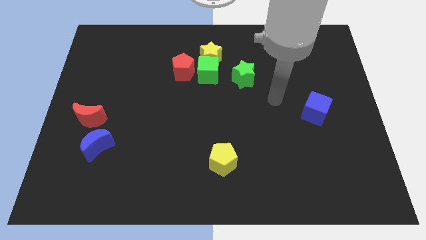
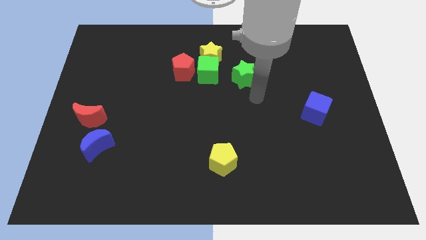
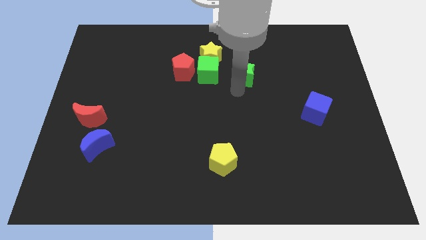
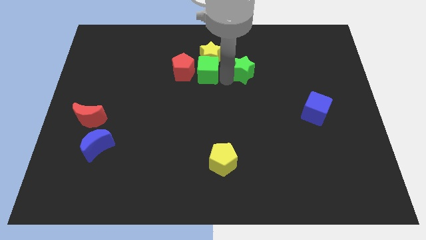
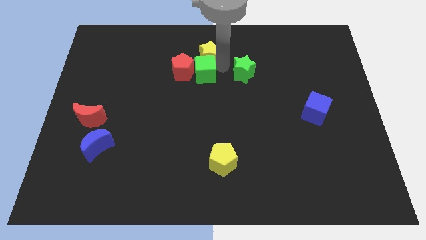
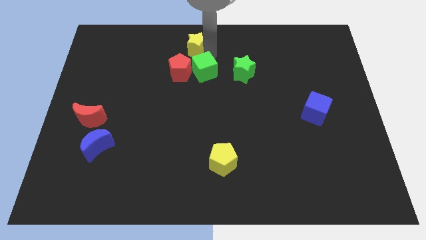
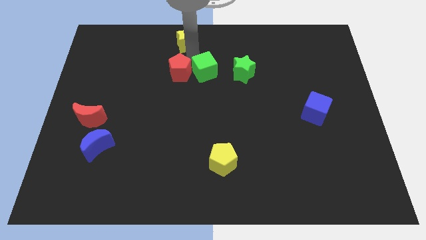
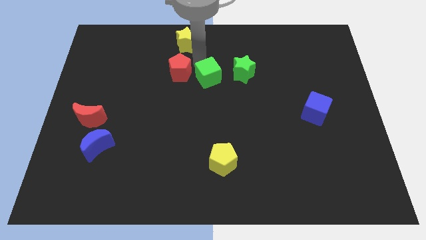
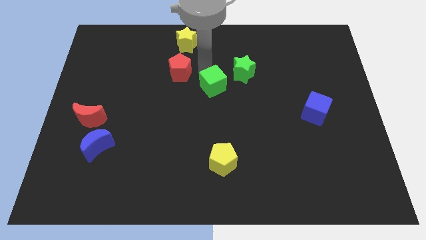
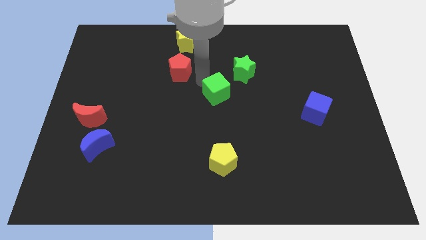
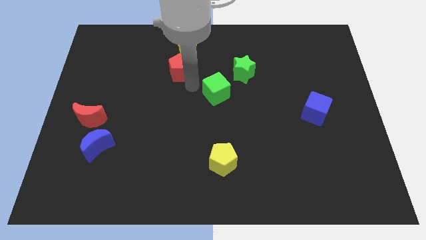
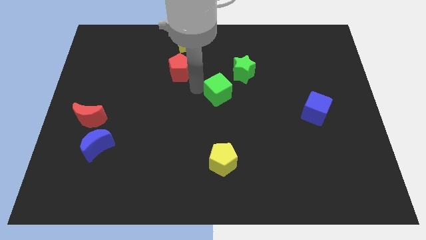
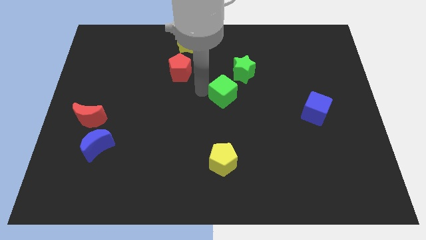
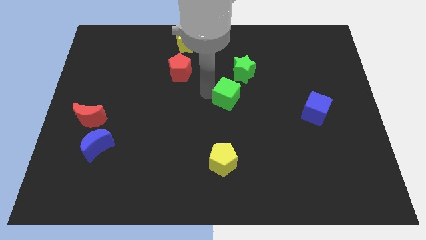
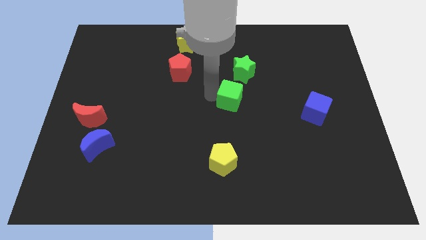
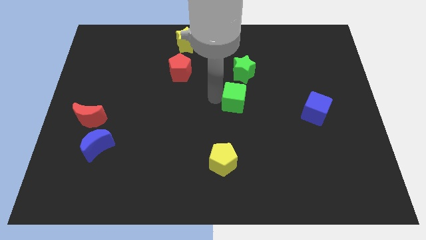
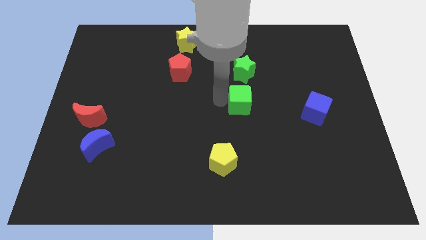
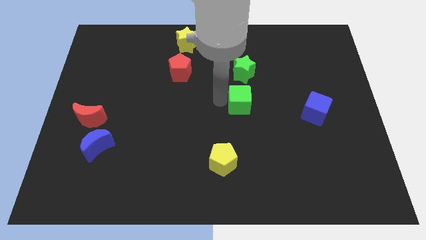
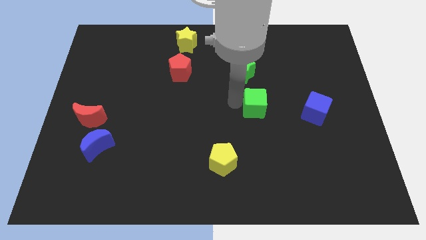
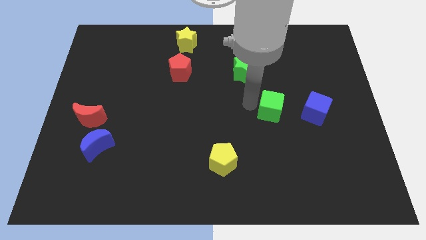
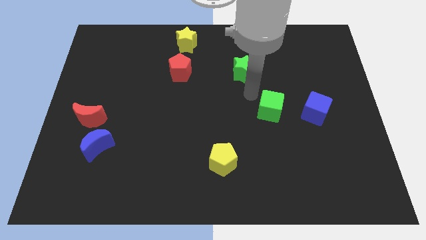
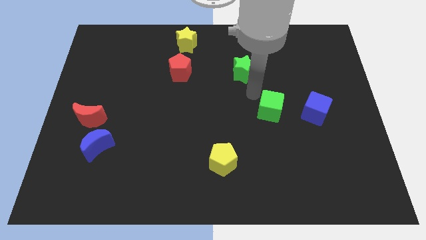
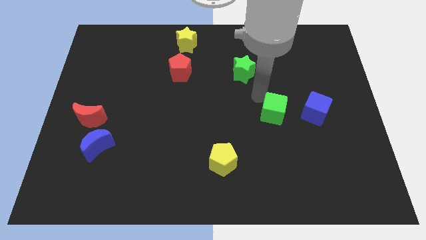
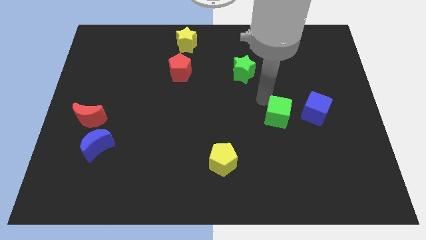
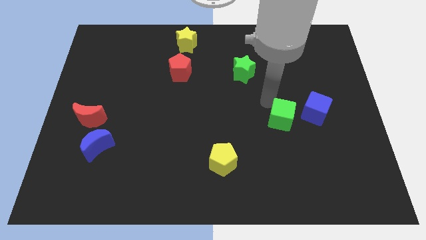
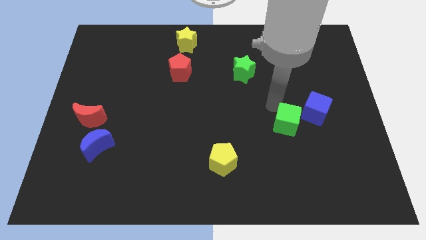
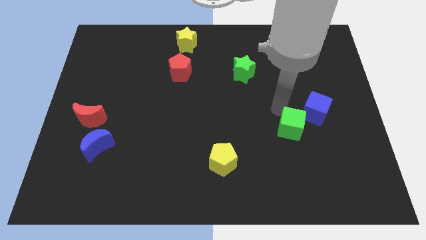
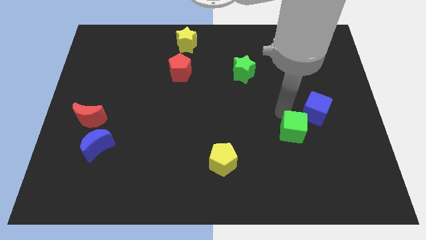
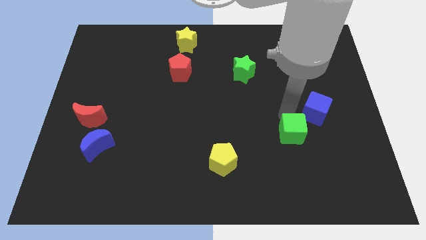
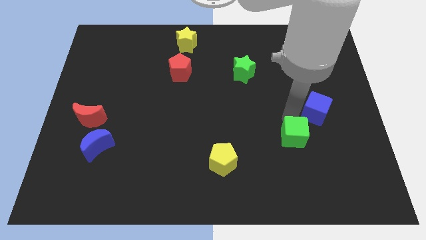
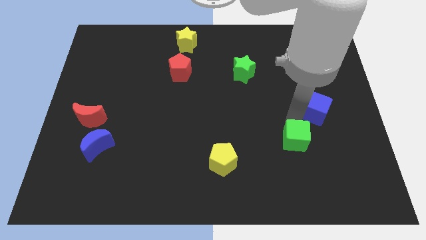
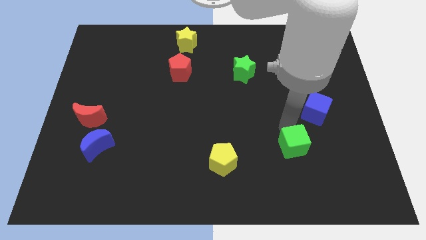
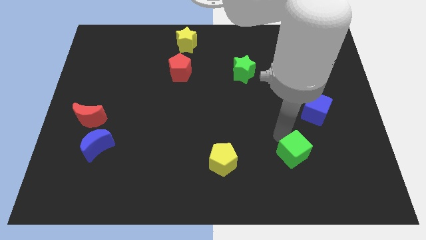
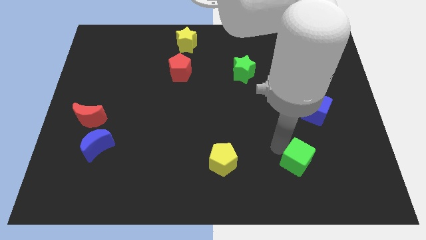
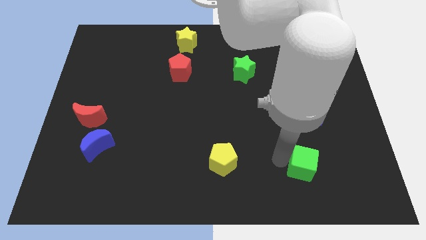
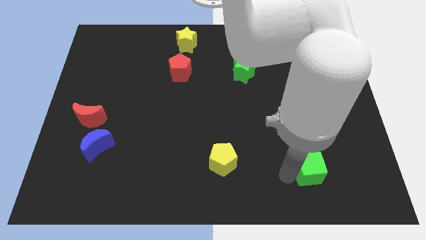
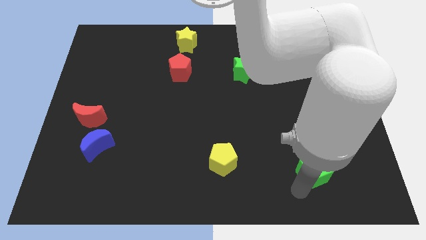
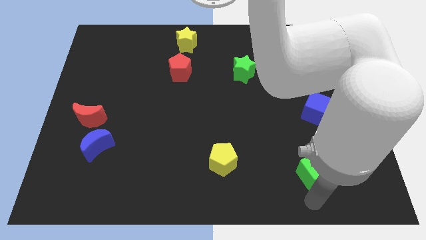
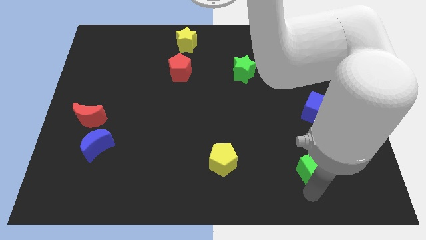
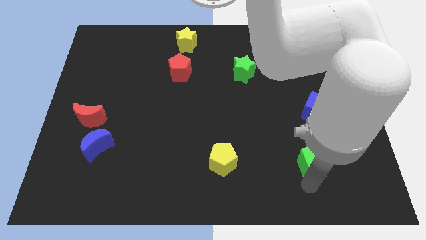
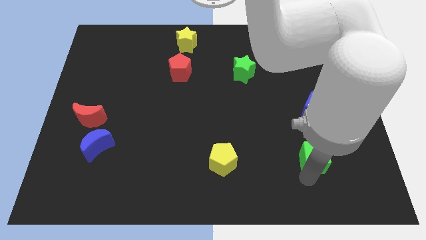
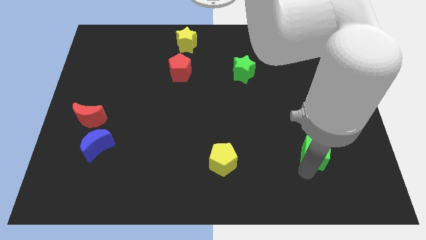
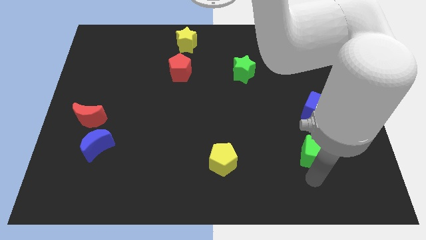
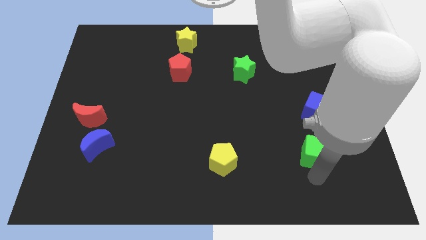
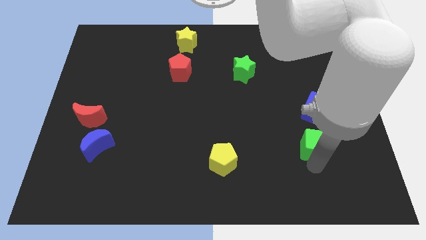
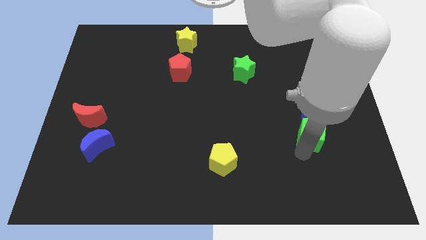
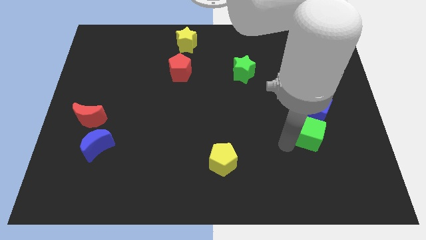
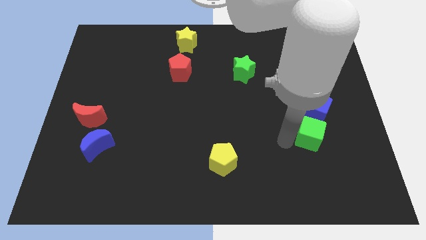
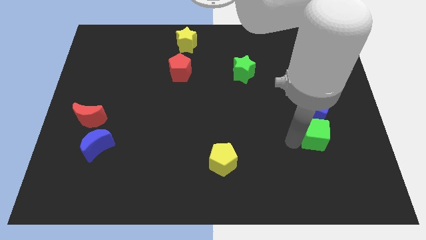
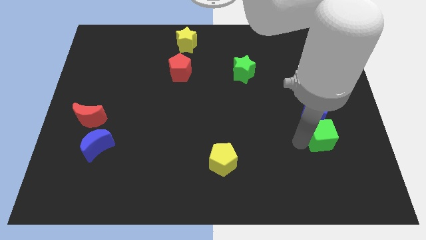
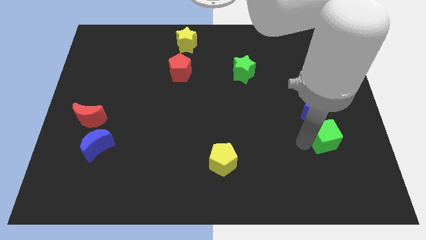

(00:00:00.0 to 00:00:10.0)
push the green cube diagonally down and to the right of the blue cube

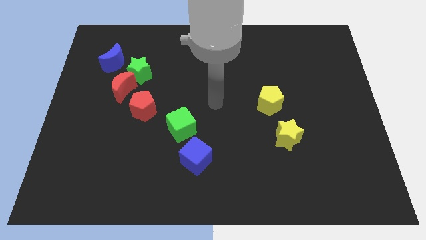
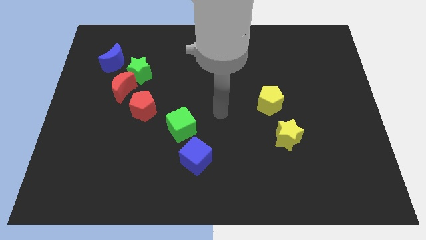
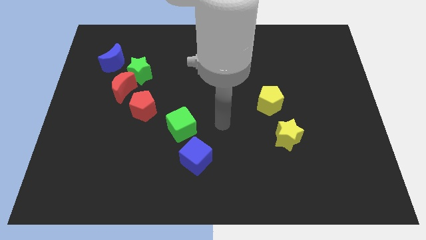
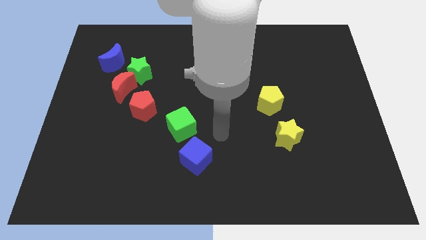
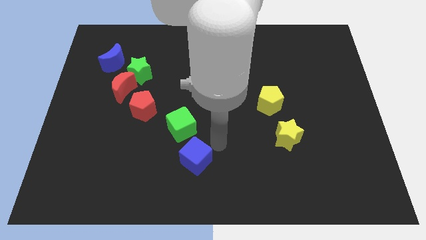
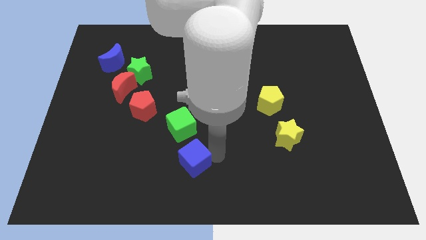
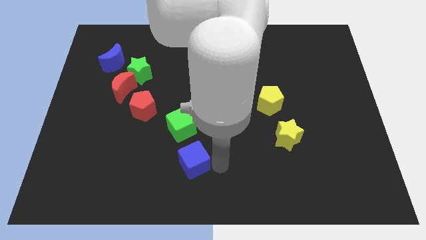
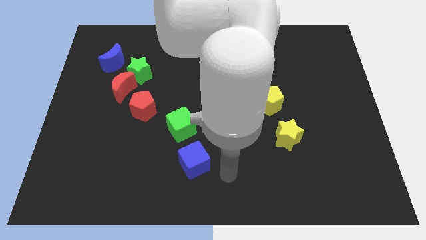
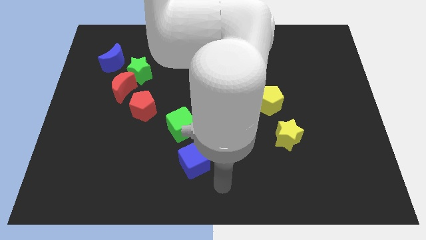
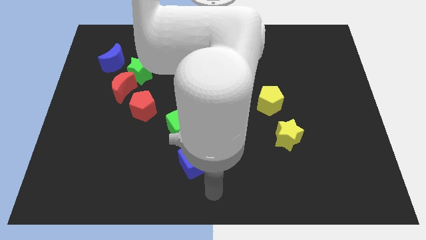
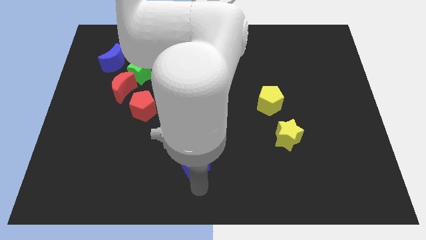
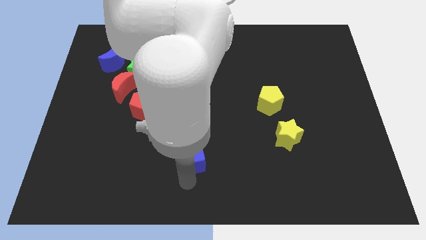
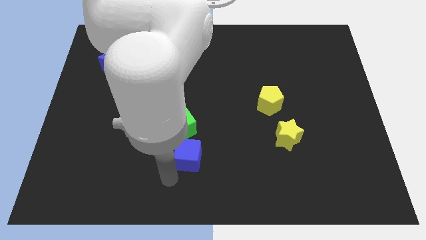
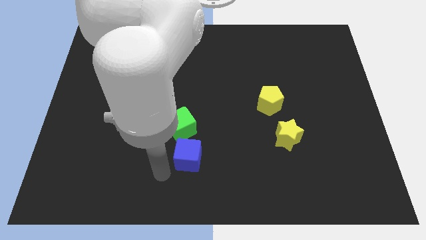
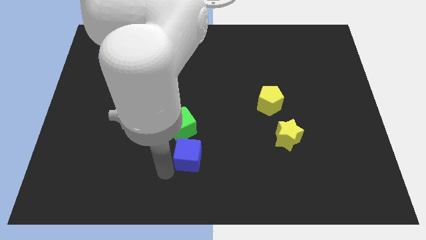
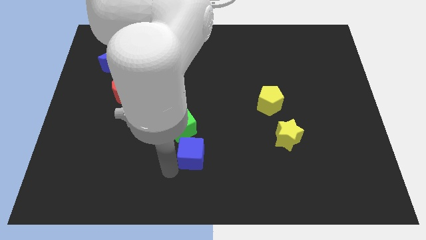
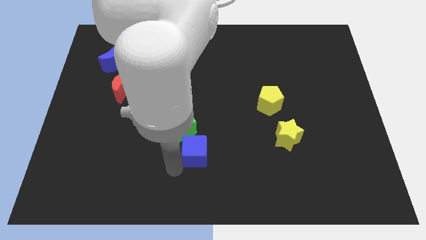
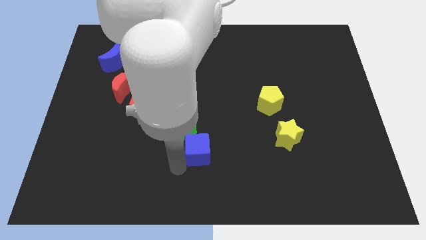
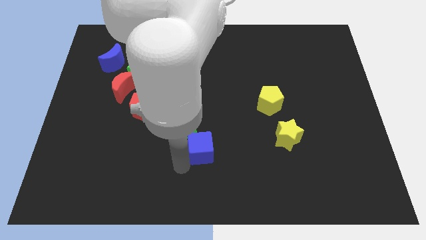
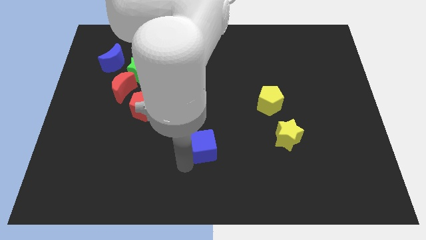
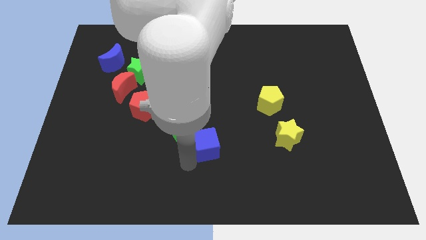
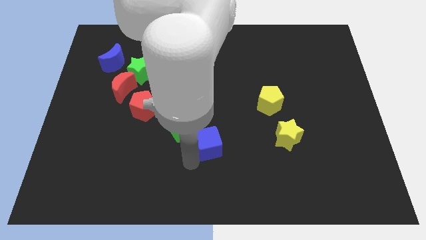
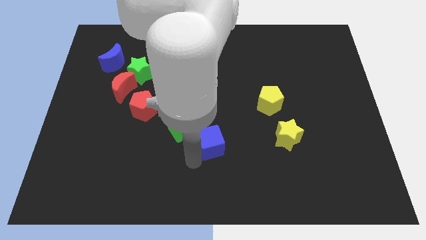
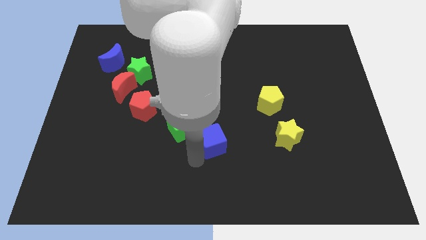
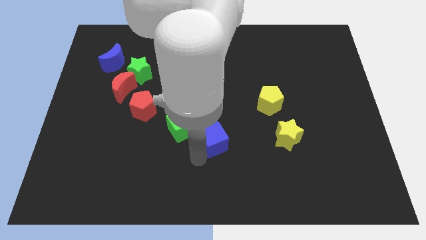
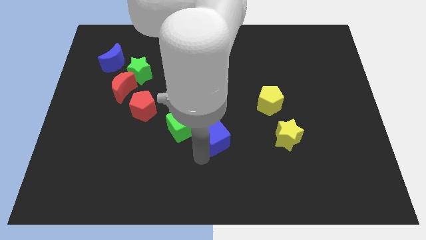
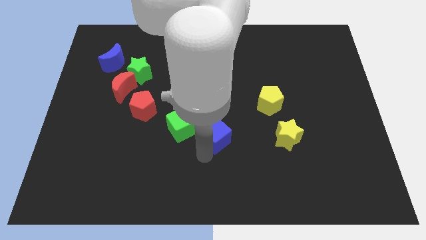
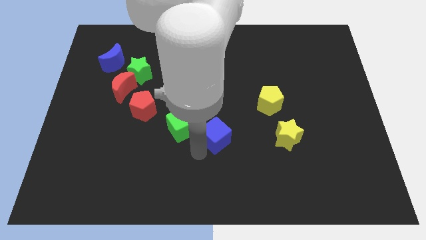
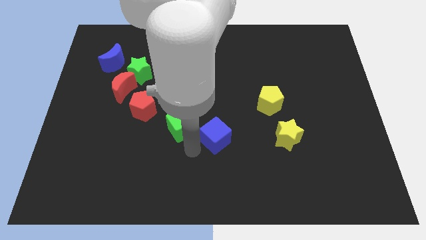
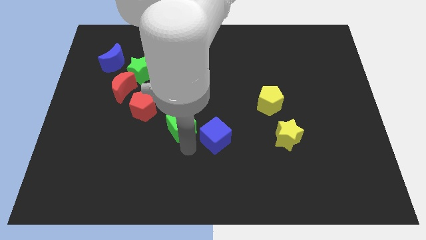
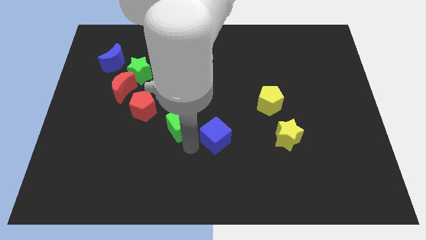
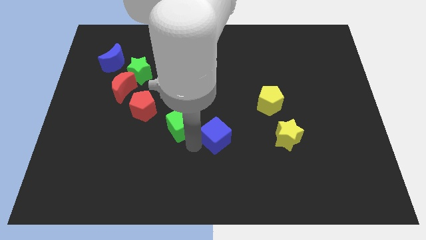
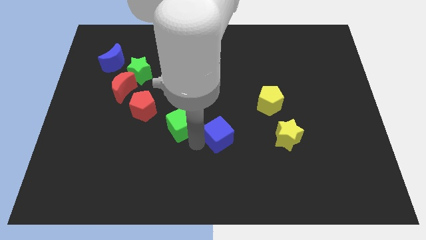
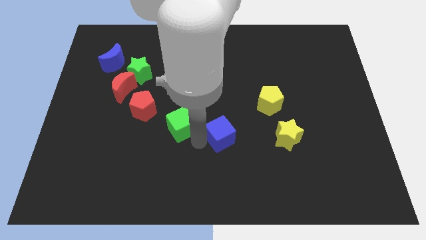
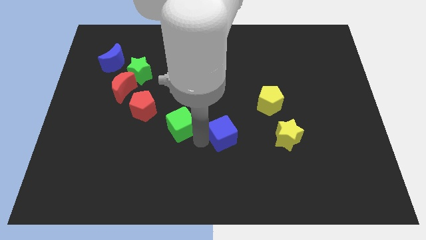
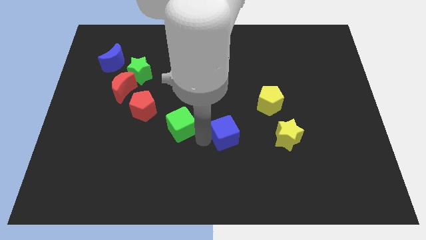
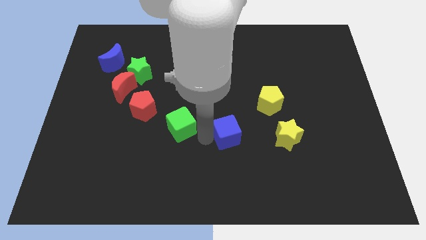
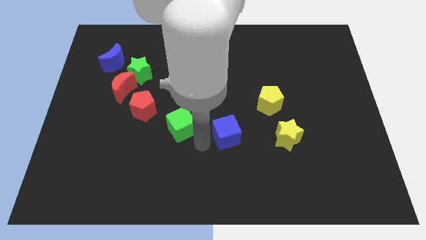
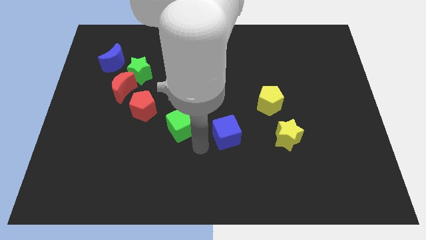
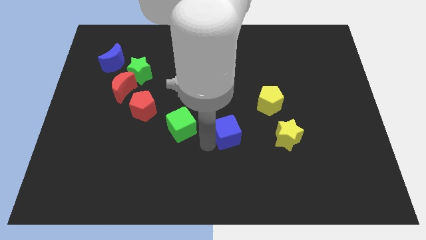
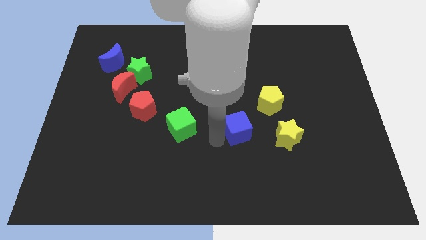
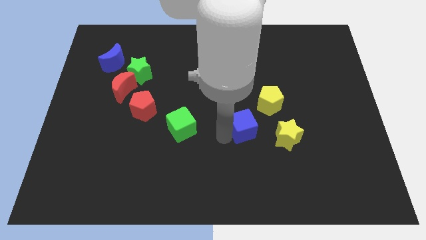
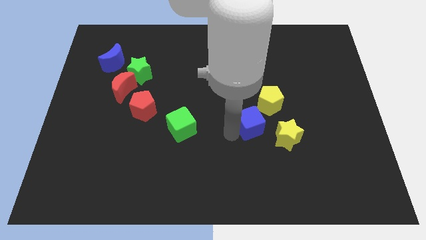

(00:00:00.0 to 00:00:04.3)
put the blue cube to the top left of the yellow star
